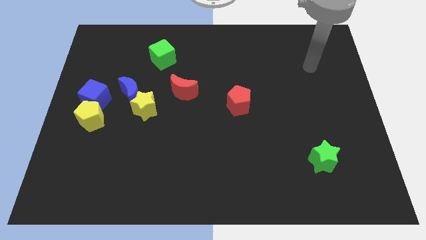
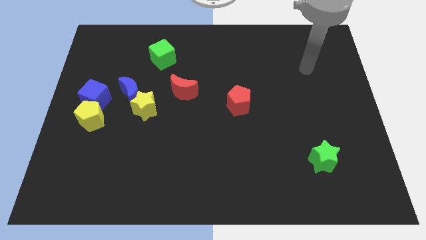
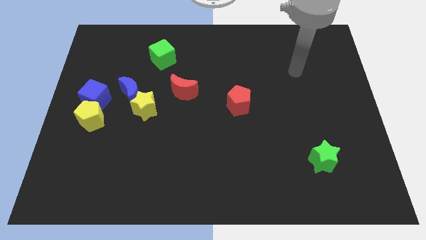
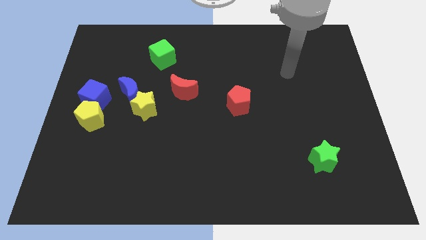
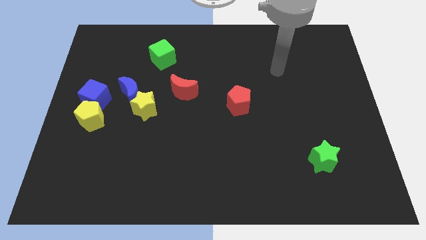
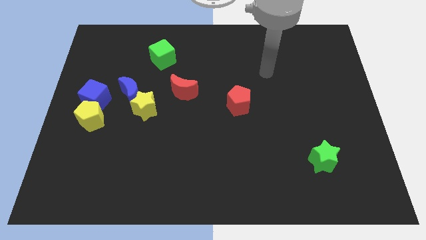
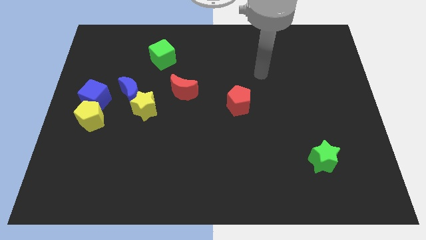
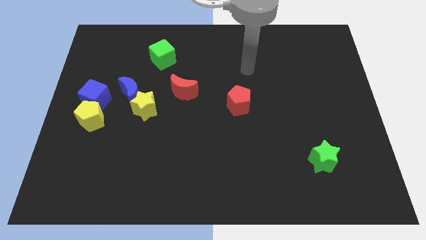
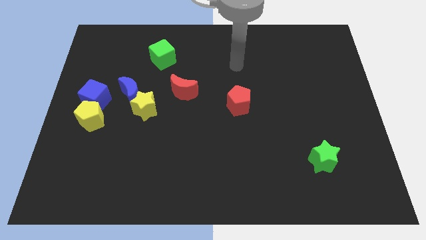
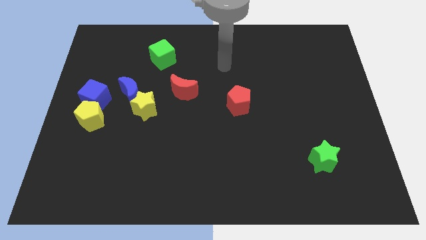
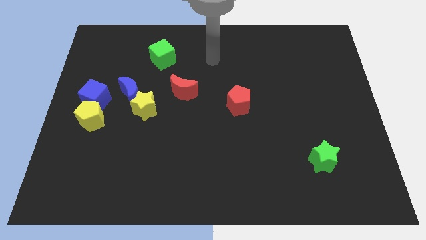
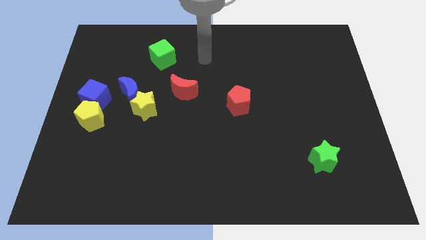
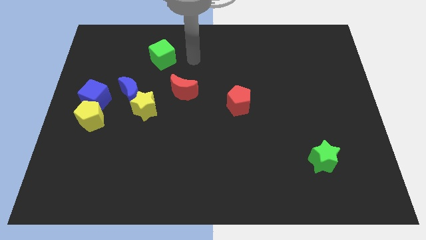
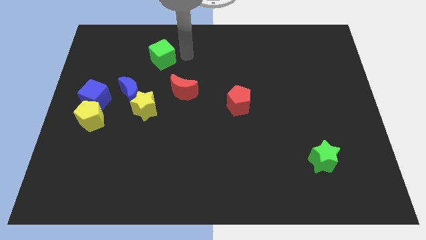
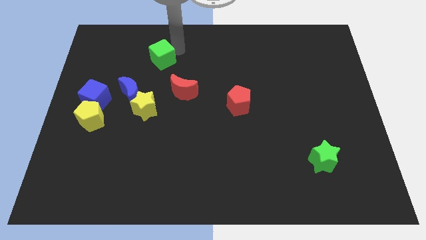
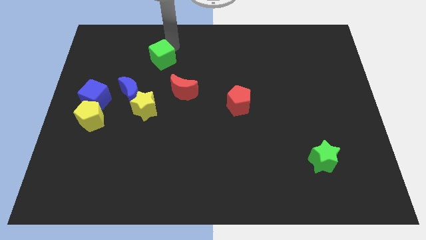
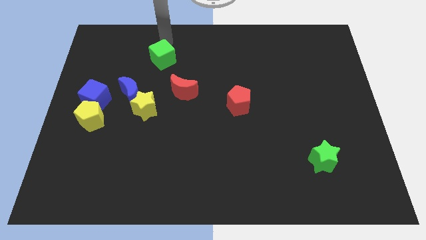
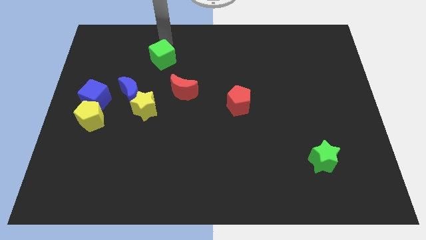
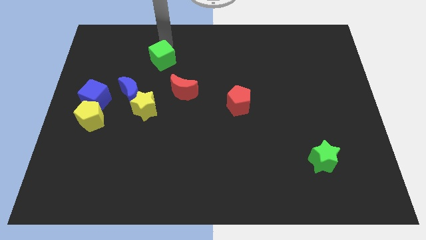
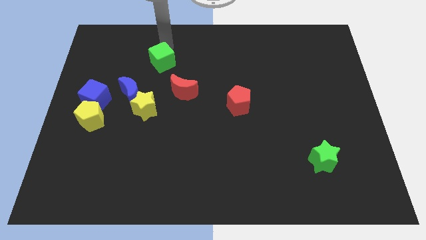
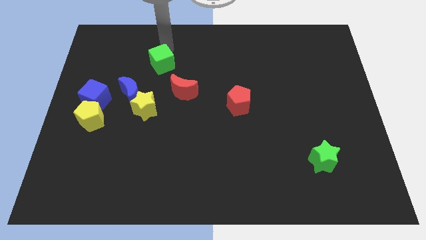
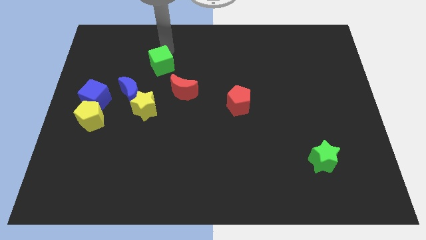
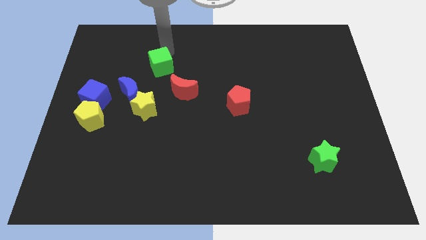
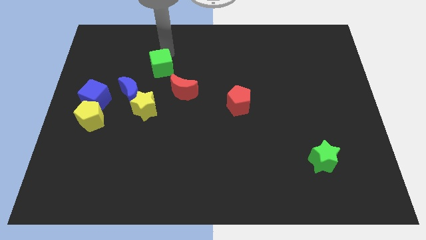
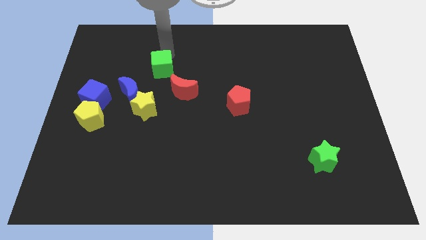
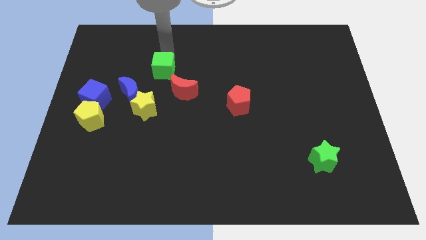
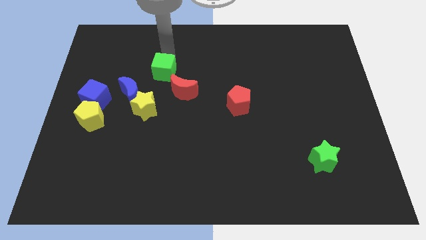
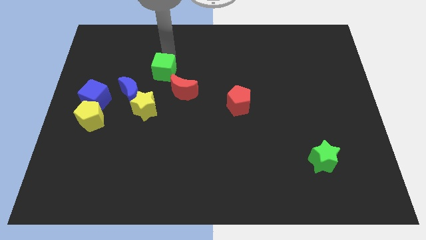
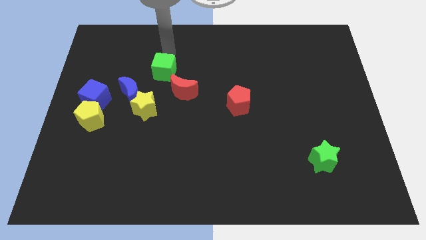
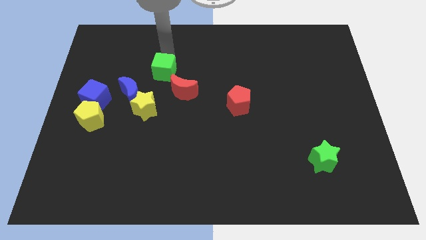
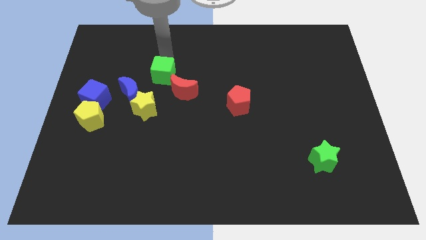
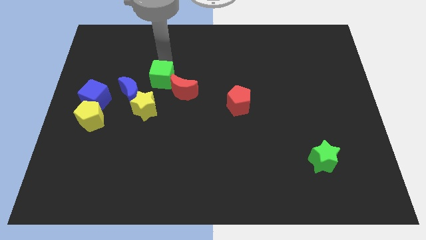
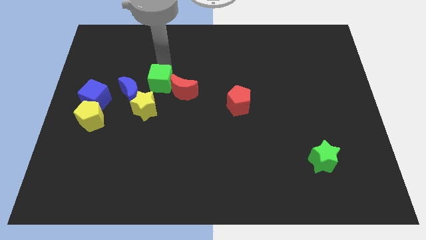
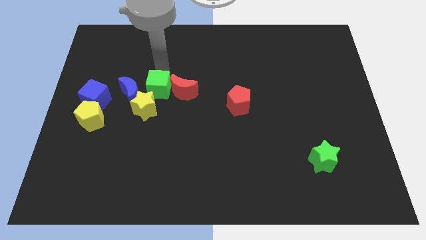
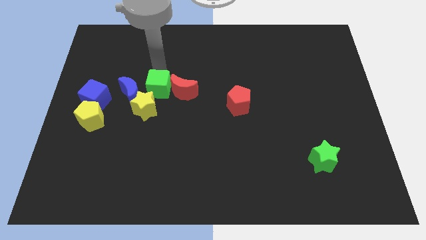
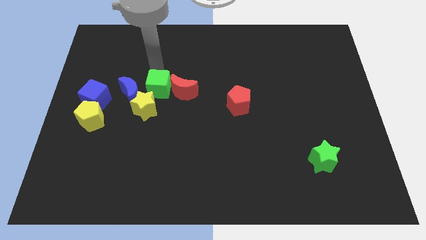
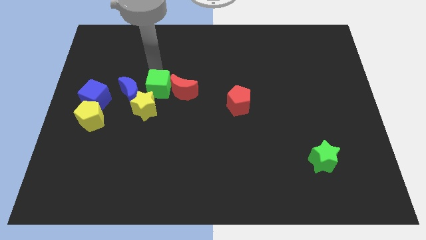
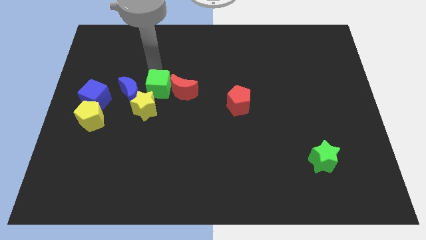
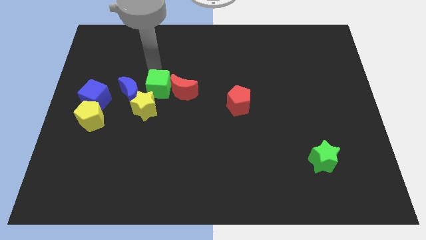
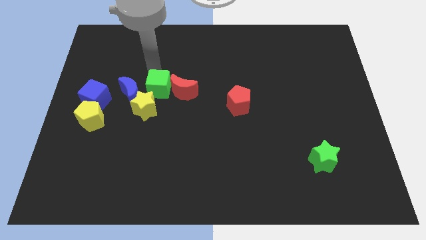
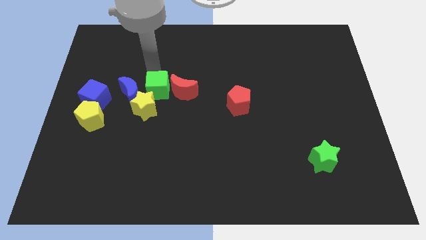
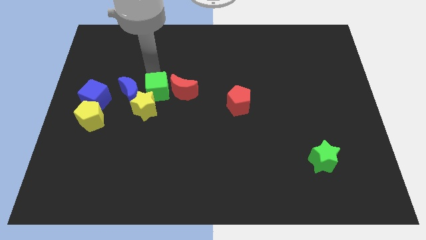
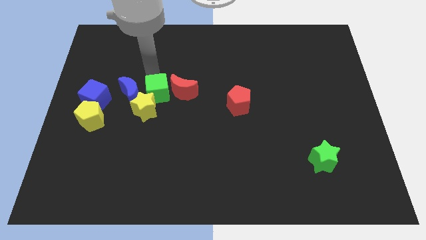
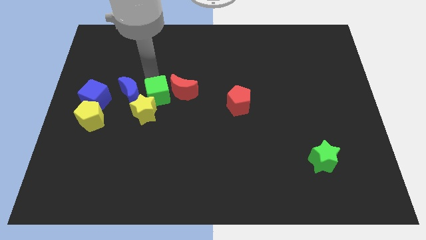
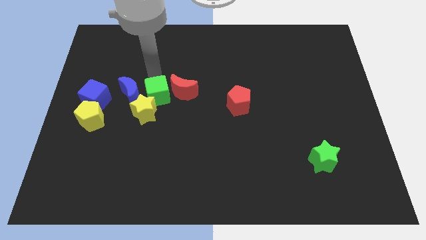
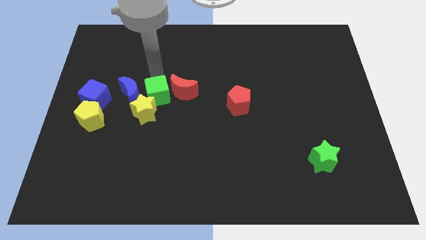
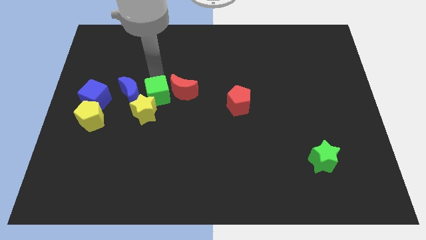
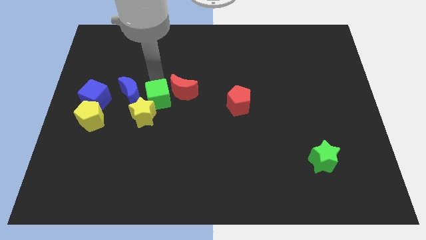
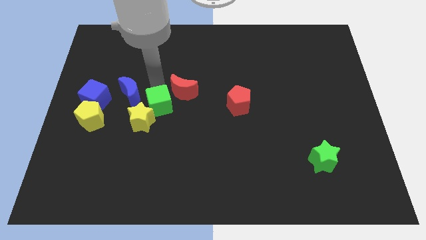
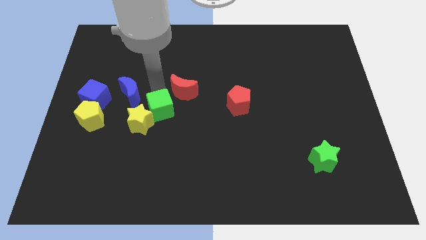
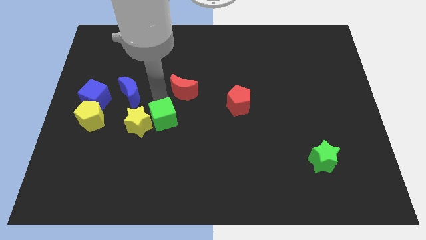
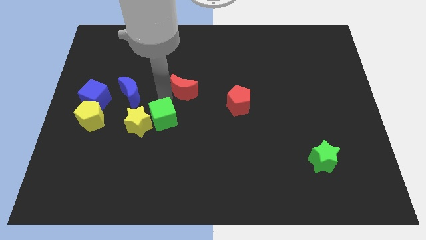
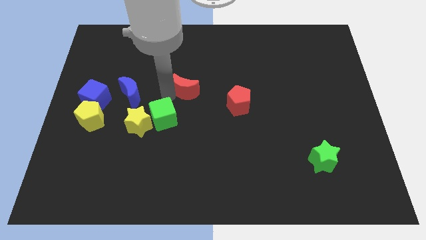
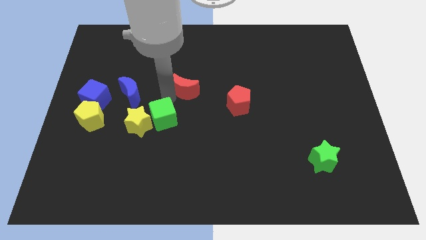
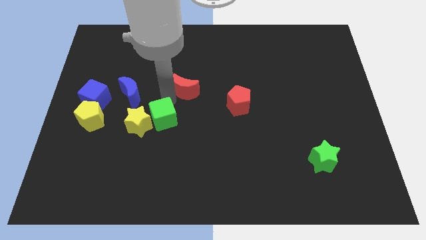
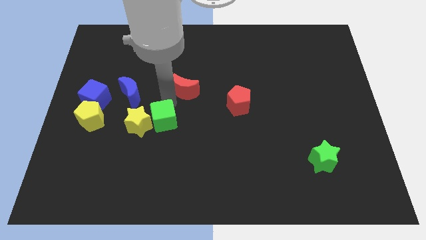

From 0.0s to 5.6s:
move the green cube downwards

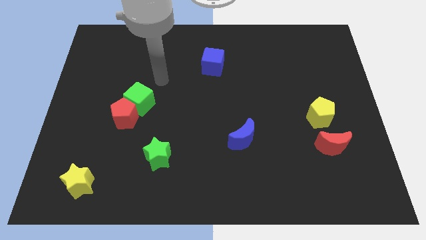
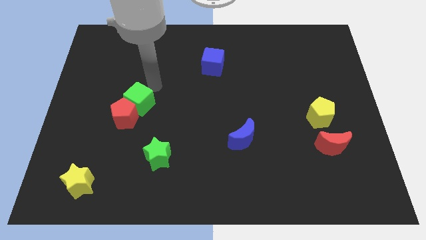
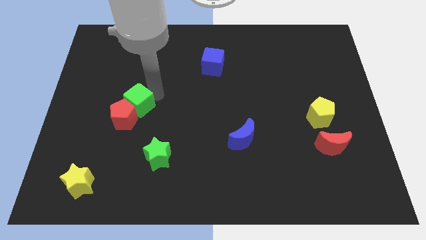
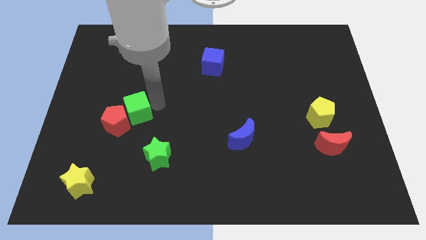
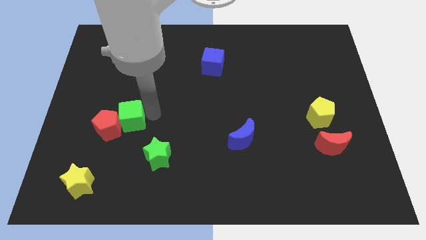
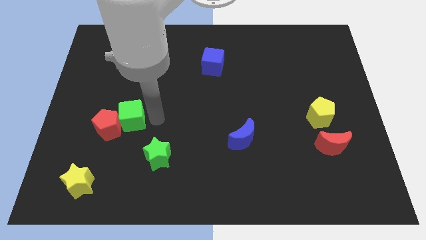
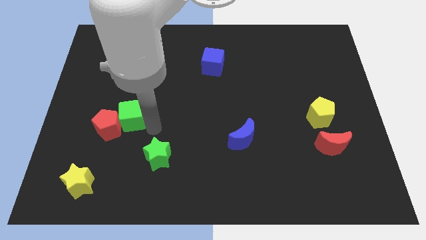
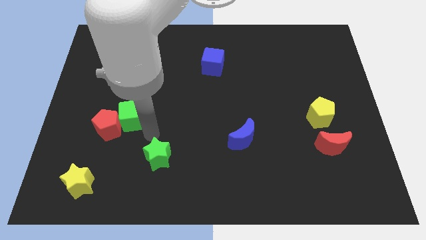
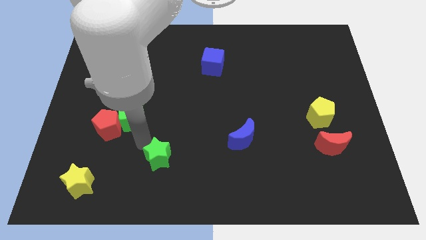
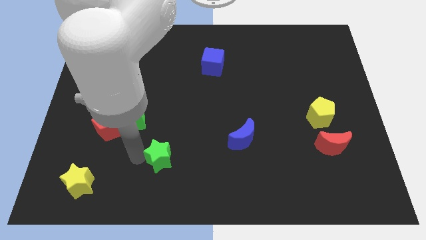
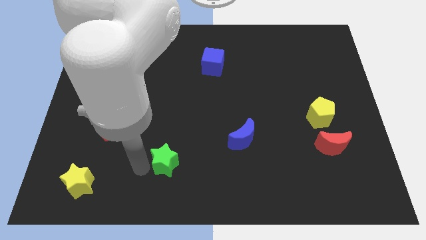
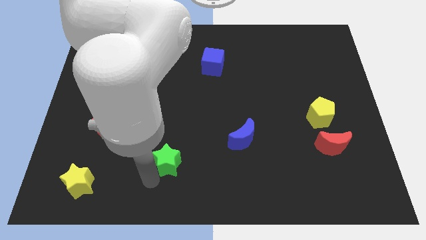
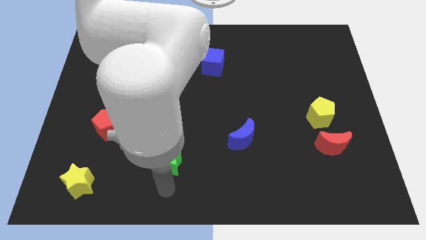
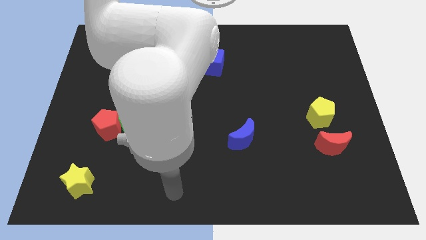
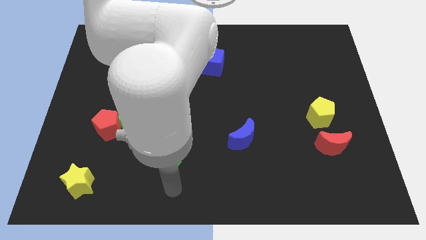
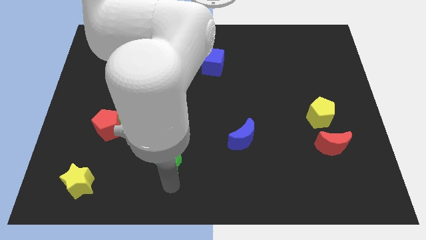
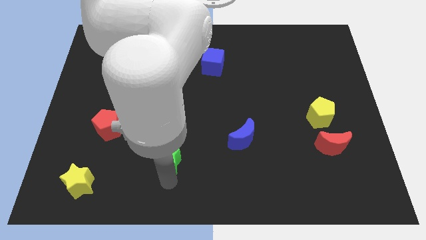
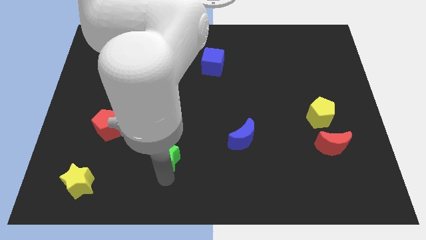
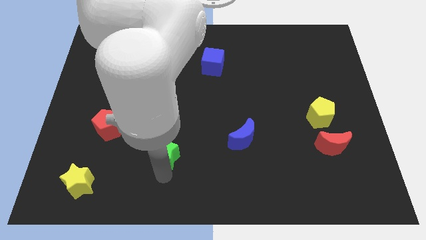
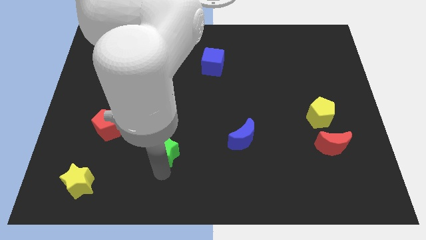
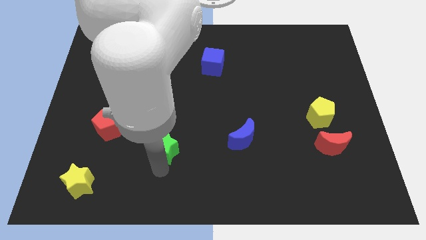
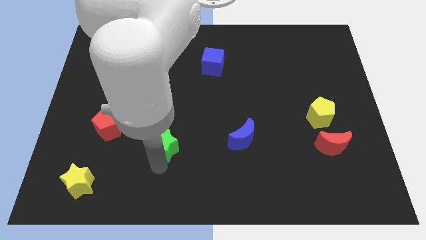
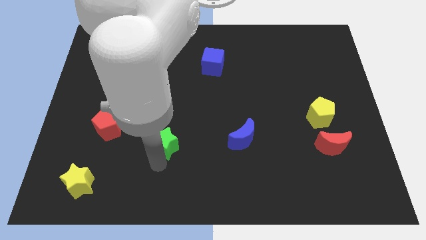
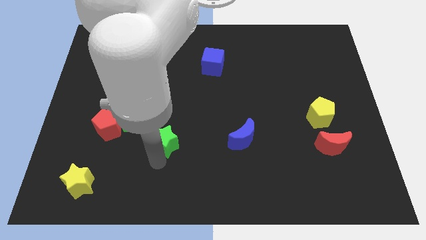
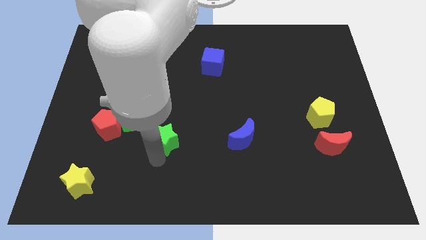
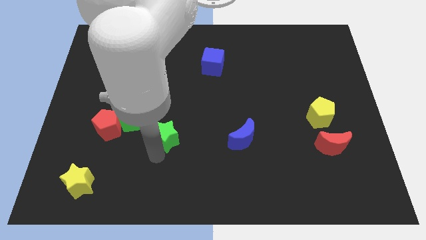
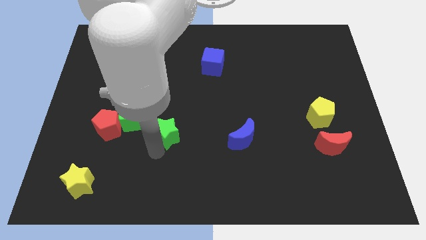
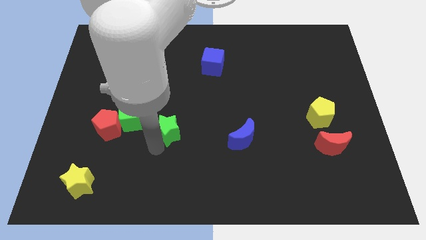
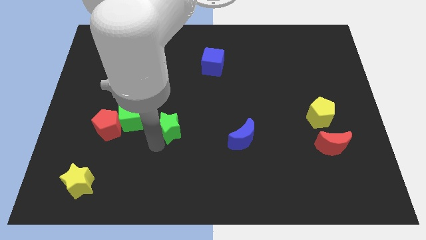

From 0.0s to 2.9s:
slightly push the green star up
